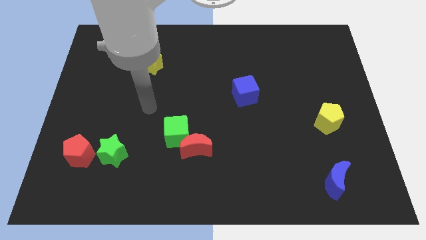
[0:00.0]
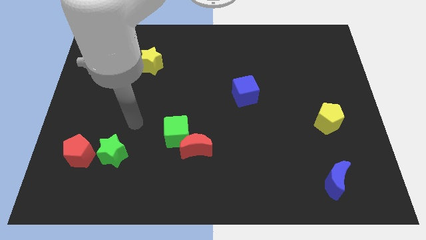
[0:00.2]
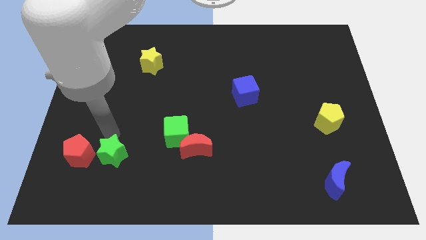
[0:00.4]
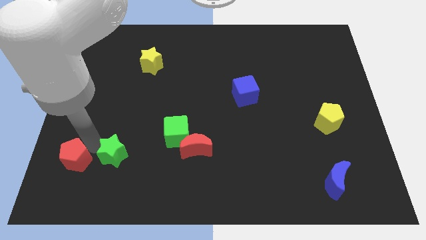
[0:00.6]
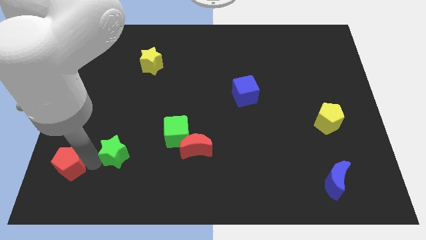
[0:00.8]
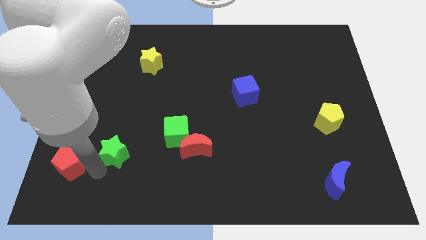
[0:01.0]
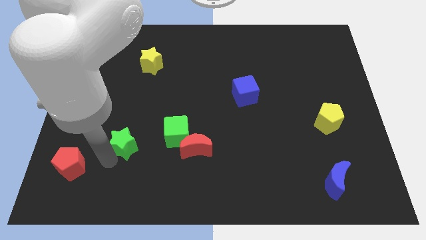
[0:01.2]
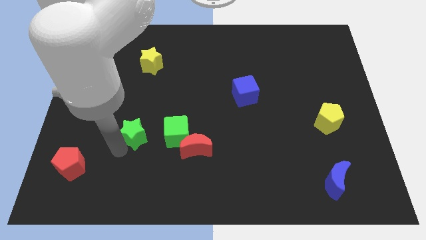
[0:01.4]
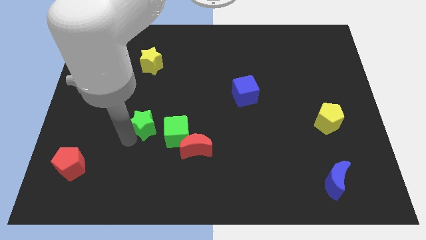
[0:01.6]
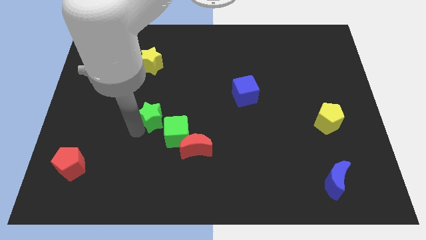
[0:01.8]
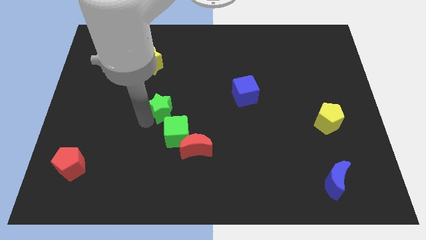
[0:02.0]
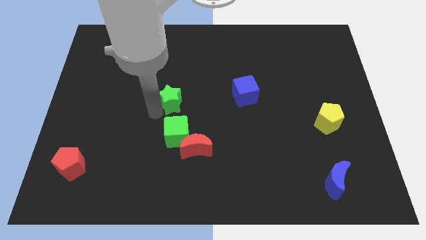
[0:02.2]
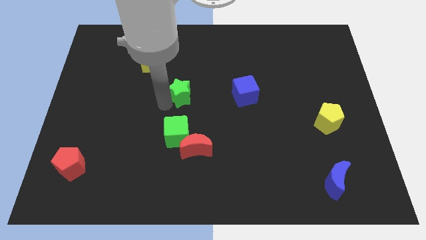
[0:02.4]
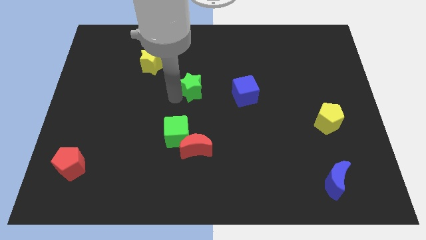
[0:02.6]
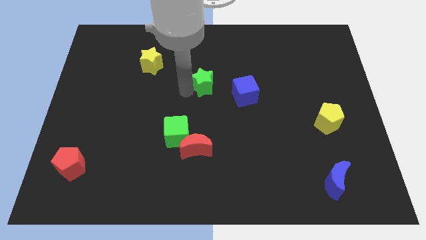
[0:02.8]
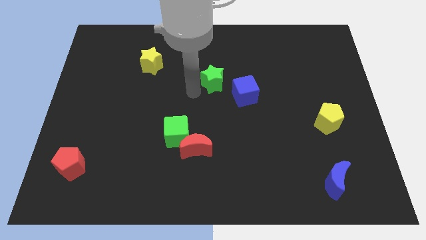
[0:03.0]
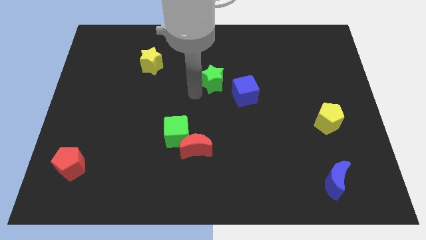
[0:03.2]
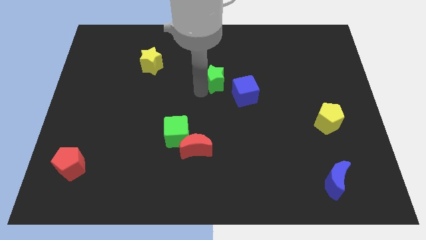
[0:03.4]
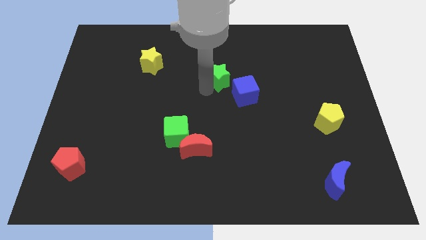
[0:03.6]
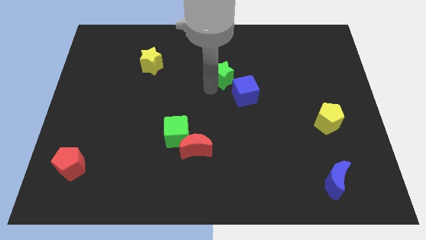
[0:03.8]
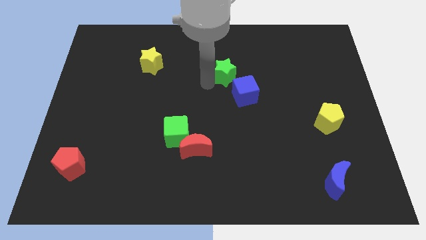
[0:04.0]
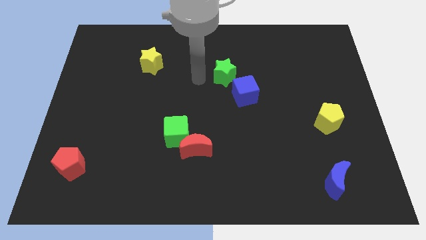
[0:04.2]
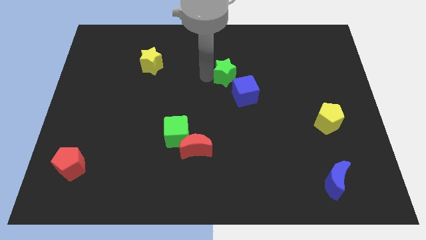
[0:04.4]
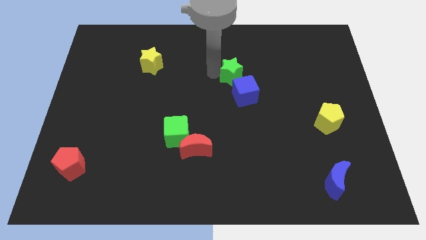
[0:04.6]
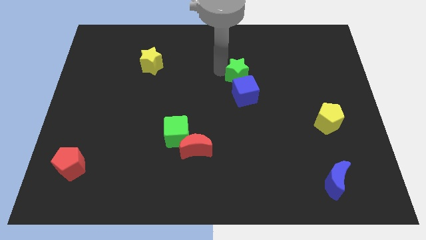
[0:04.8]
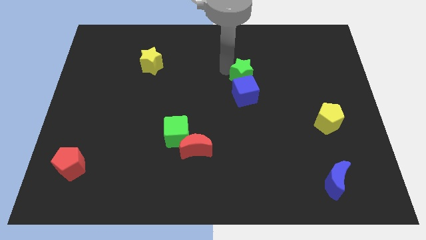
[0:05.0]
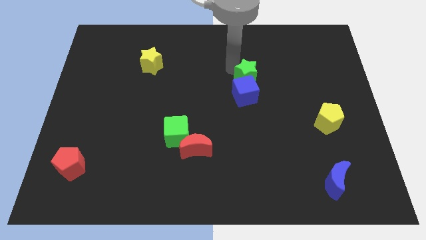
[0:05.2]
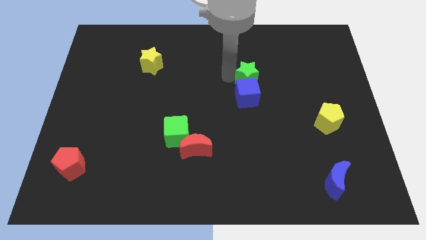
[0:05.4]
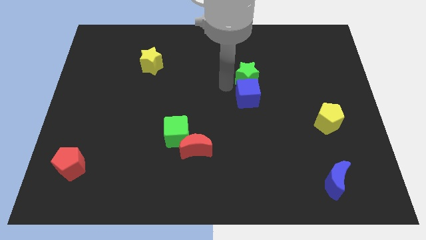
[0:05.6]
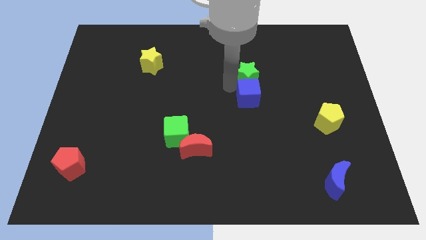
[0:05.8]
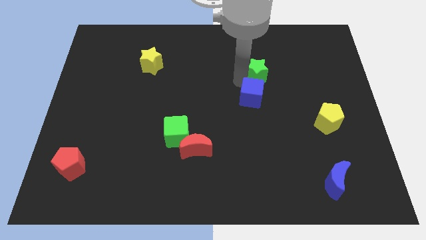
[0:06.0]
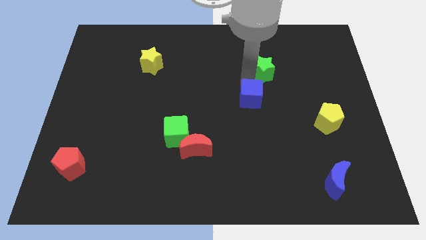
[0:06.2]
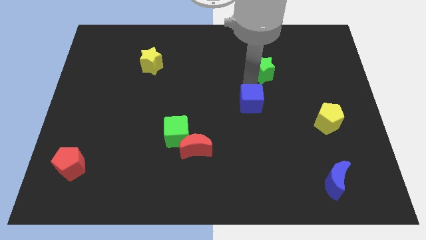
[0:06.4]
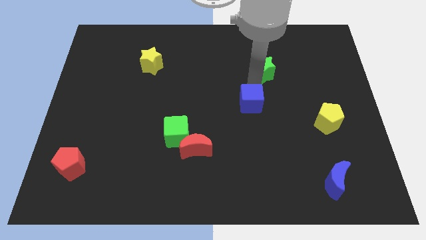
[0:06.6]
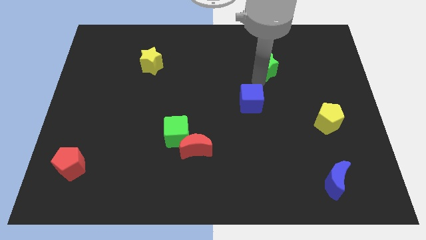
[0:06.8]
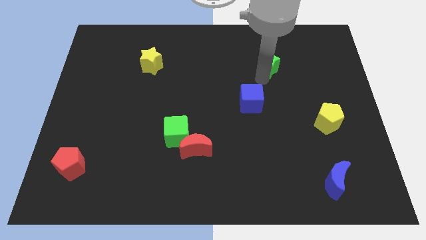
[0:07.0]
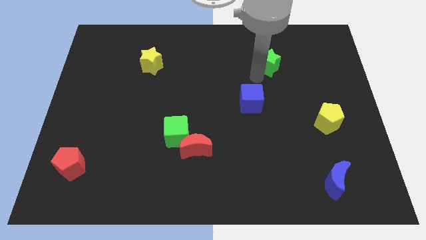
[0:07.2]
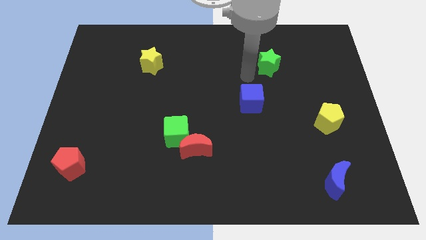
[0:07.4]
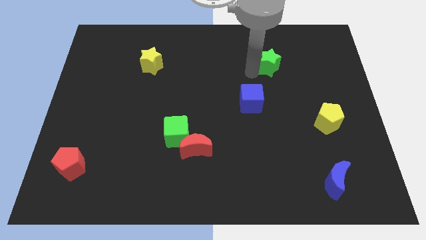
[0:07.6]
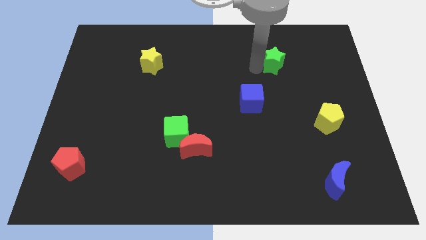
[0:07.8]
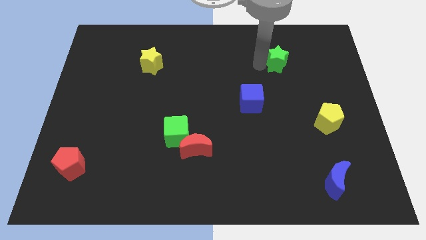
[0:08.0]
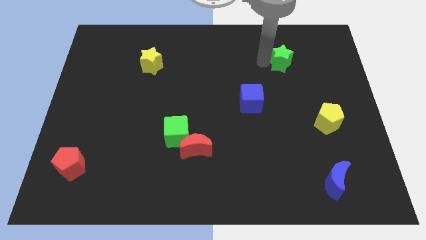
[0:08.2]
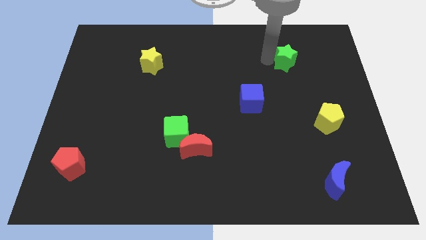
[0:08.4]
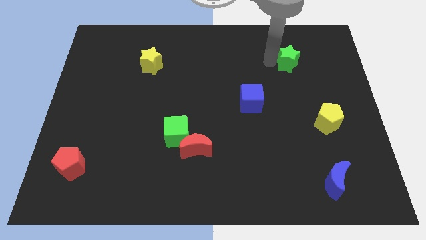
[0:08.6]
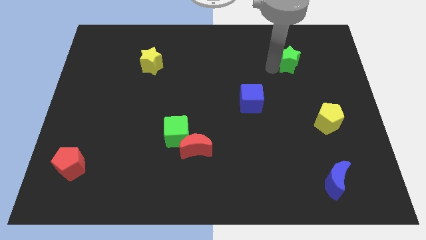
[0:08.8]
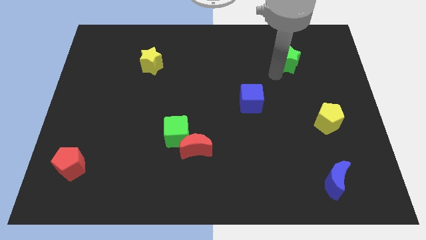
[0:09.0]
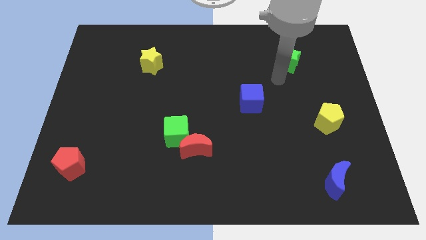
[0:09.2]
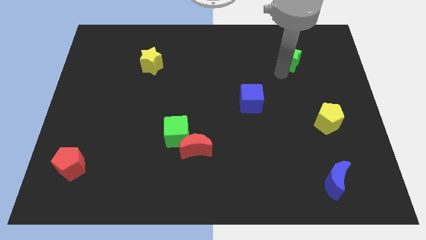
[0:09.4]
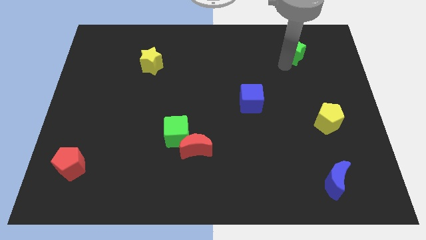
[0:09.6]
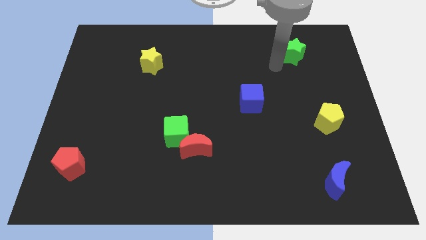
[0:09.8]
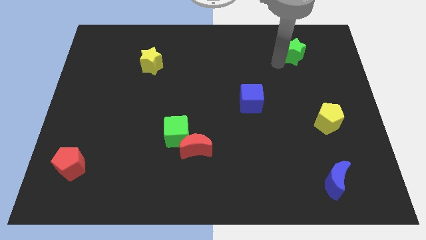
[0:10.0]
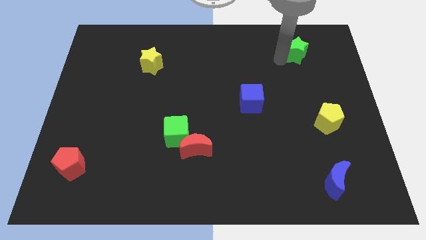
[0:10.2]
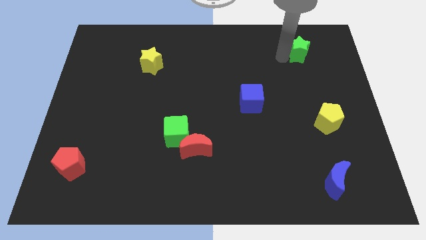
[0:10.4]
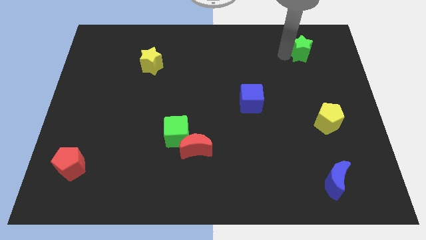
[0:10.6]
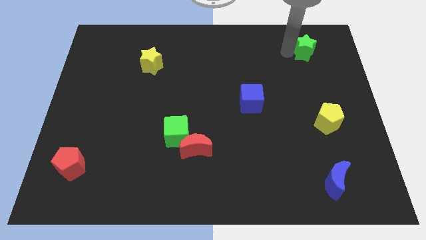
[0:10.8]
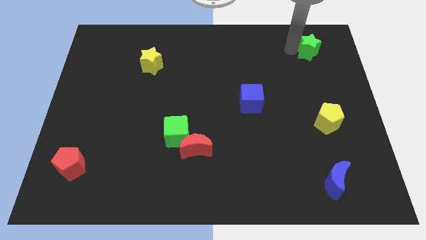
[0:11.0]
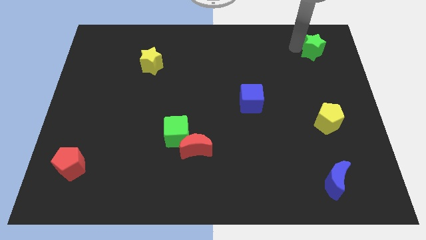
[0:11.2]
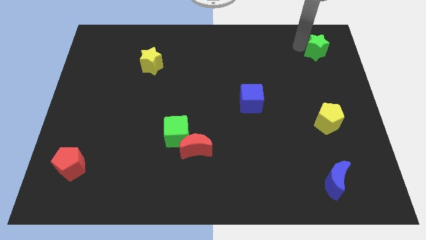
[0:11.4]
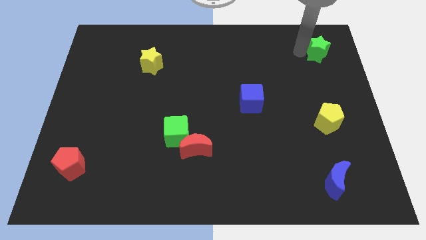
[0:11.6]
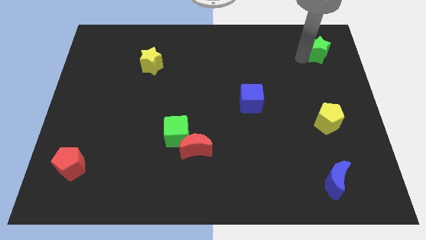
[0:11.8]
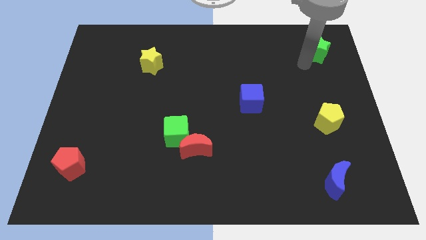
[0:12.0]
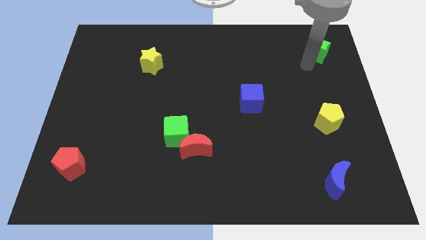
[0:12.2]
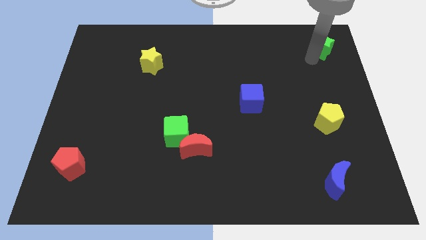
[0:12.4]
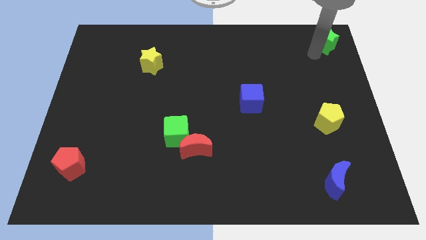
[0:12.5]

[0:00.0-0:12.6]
put the green star to the top right of the board
